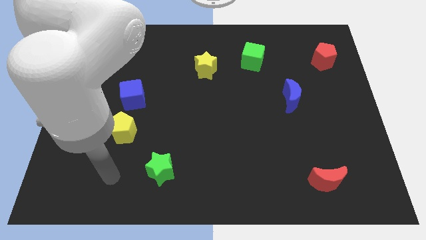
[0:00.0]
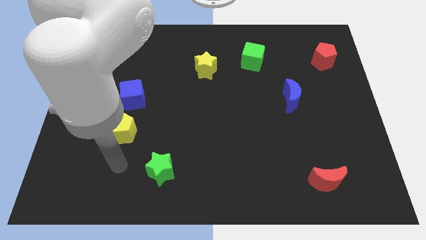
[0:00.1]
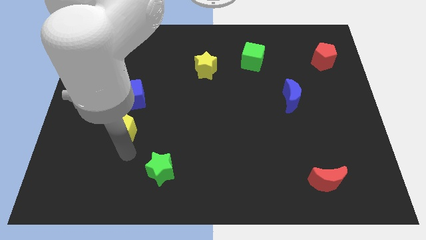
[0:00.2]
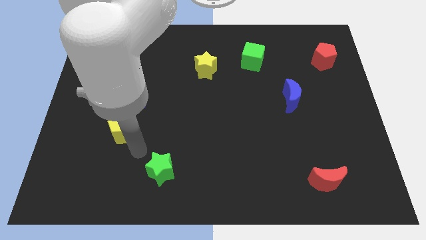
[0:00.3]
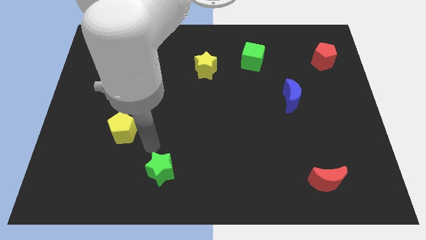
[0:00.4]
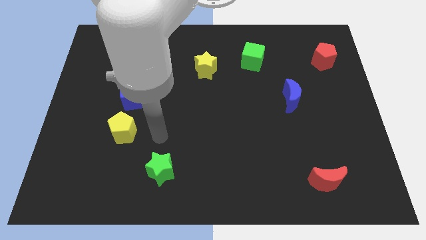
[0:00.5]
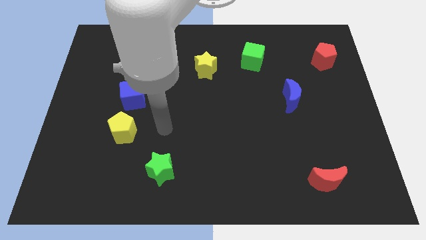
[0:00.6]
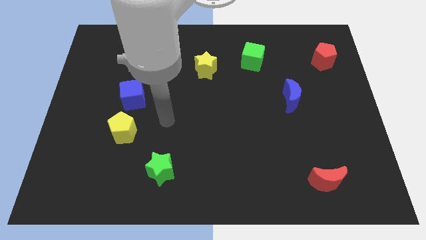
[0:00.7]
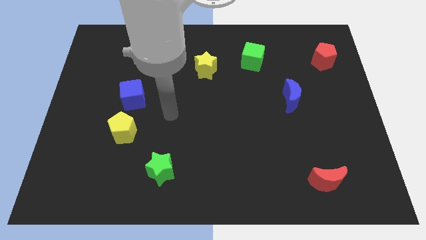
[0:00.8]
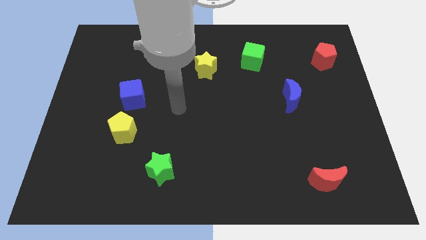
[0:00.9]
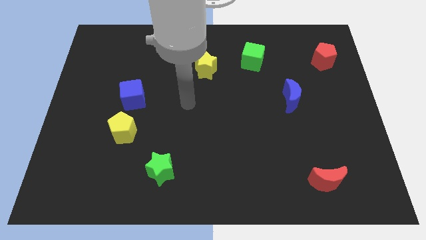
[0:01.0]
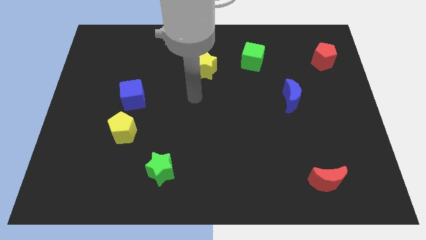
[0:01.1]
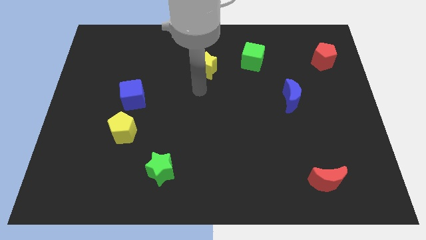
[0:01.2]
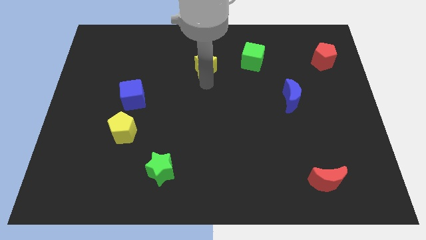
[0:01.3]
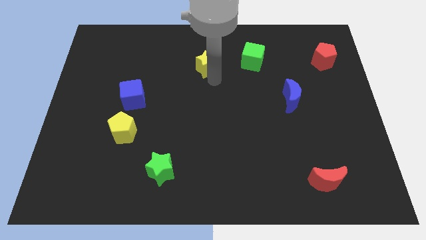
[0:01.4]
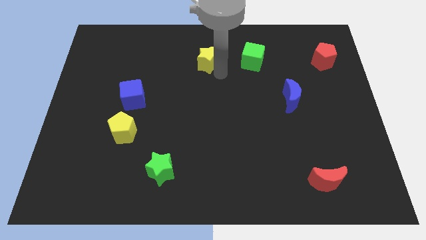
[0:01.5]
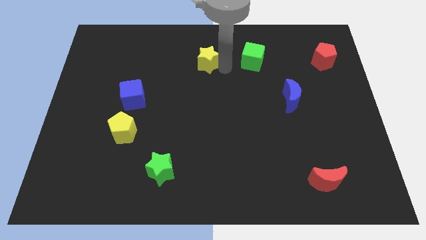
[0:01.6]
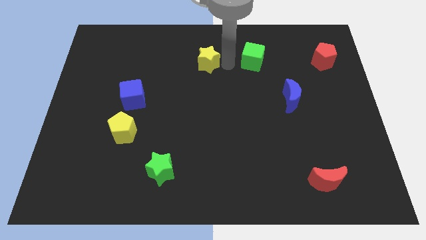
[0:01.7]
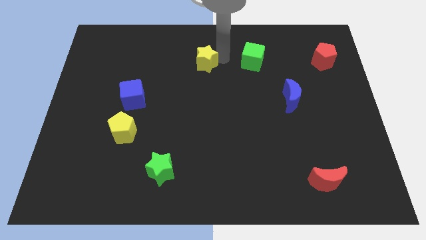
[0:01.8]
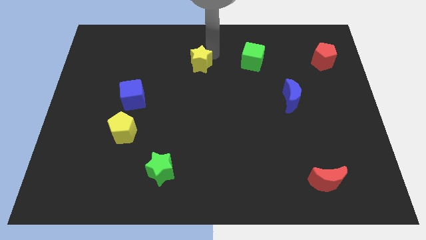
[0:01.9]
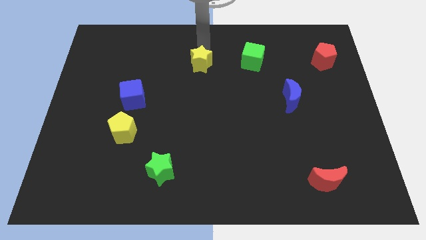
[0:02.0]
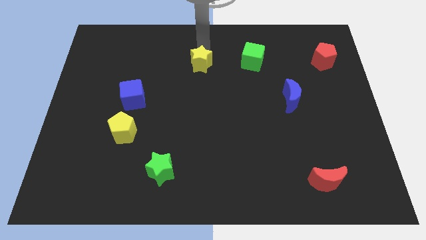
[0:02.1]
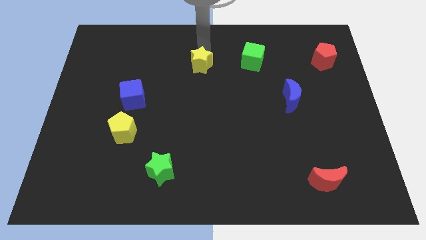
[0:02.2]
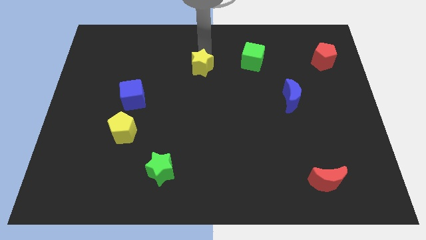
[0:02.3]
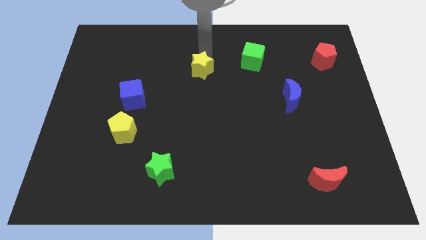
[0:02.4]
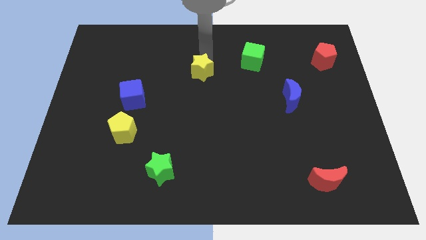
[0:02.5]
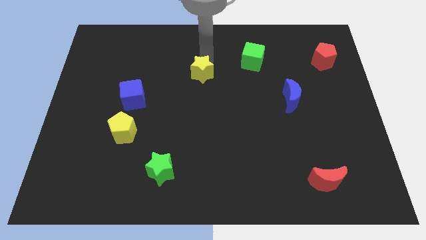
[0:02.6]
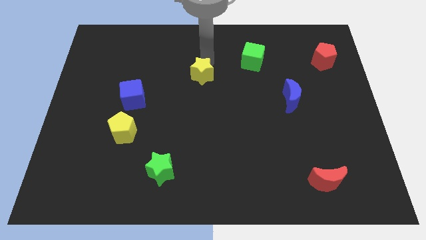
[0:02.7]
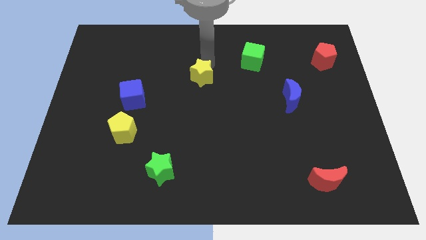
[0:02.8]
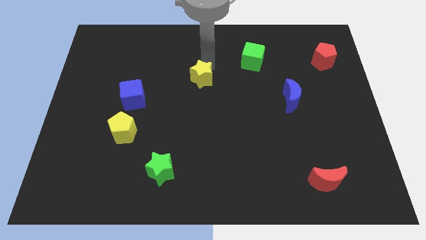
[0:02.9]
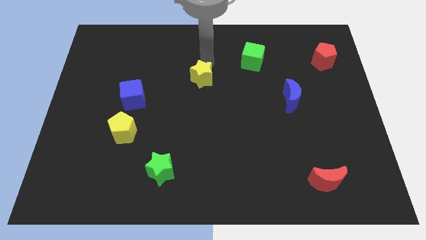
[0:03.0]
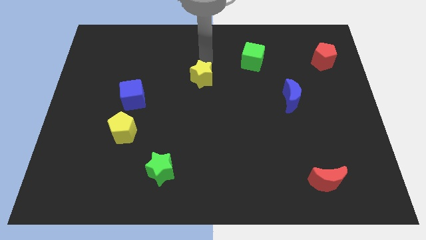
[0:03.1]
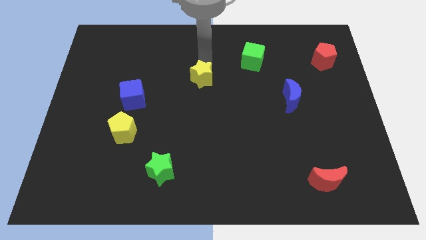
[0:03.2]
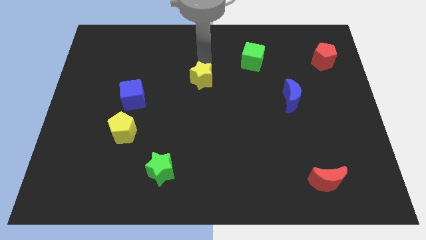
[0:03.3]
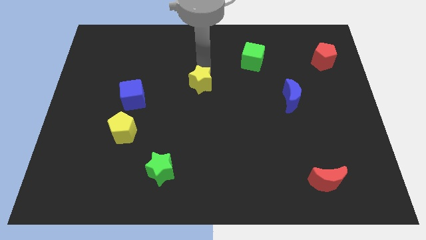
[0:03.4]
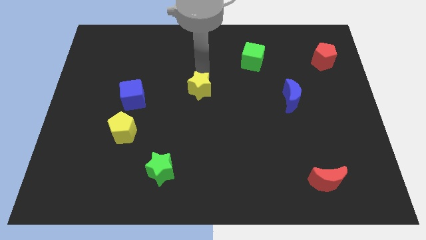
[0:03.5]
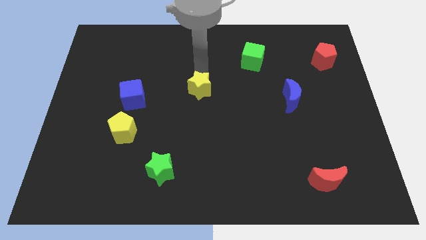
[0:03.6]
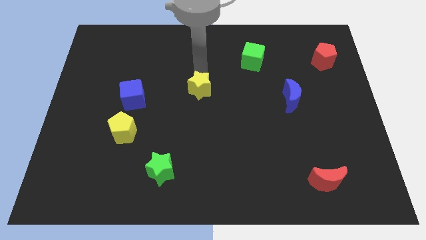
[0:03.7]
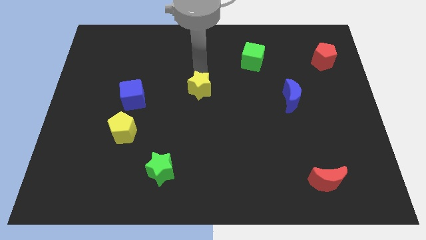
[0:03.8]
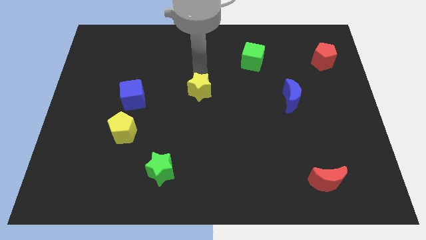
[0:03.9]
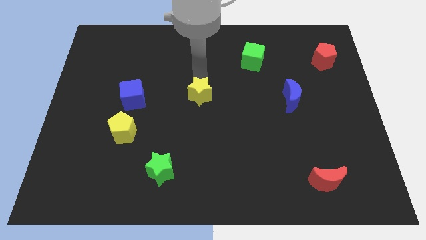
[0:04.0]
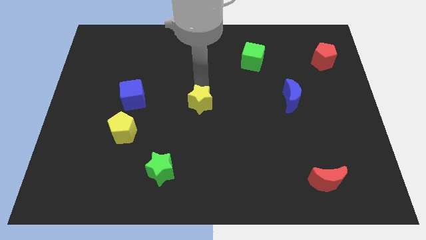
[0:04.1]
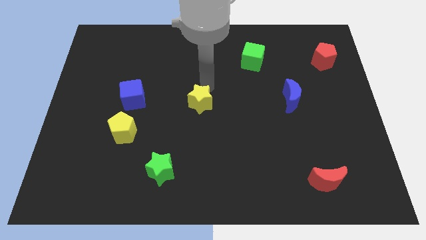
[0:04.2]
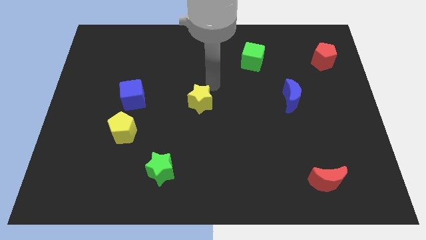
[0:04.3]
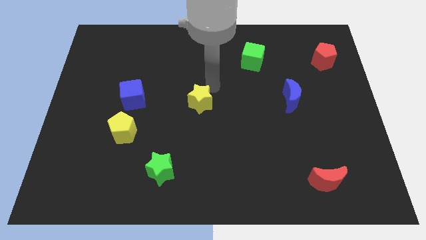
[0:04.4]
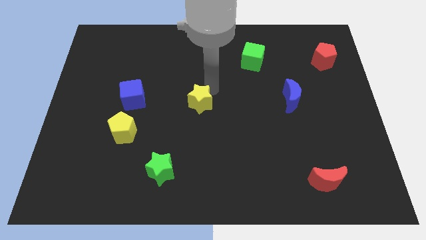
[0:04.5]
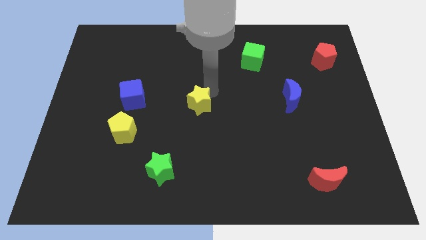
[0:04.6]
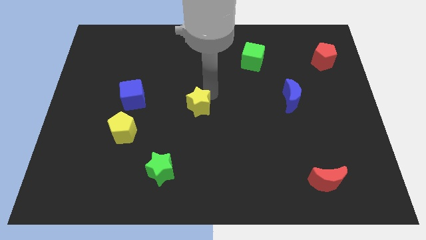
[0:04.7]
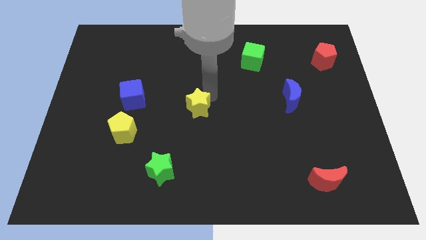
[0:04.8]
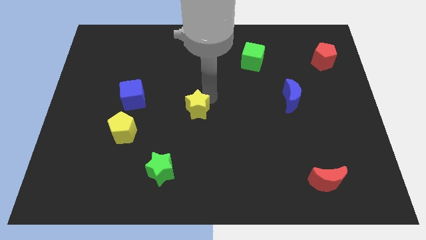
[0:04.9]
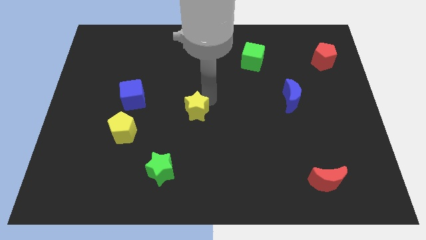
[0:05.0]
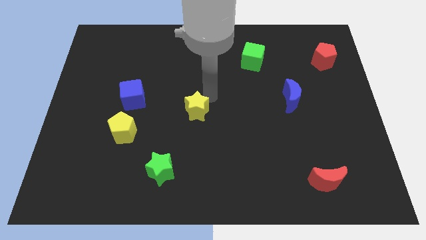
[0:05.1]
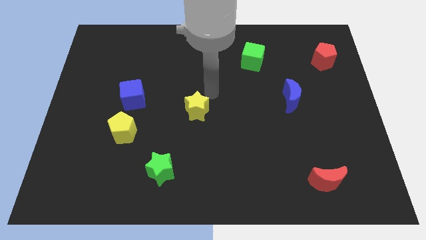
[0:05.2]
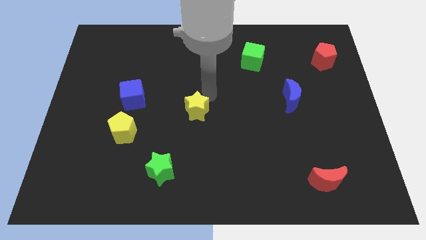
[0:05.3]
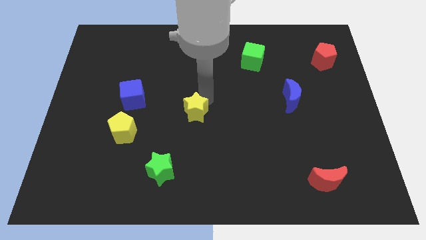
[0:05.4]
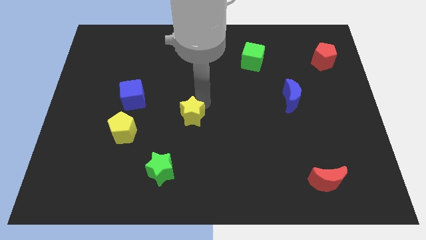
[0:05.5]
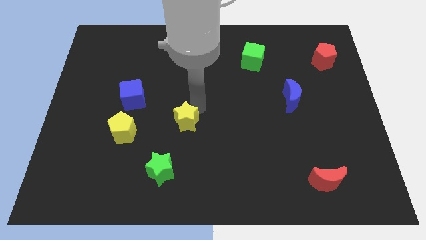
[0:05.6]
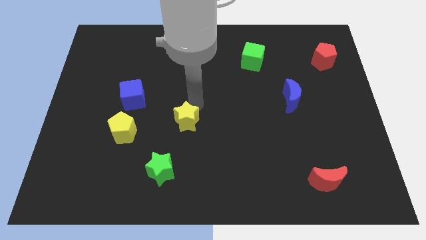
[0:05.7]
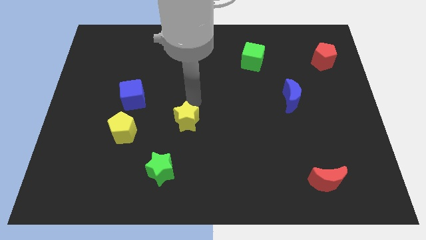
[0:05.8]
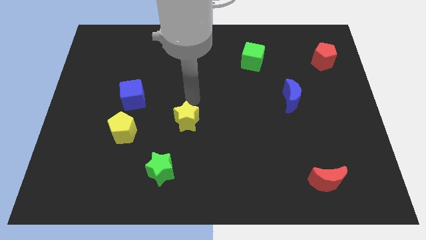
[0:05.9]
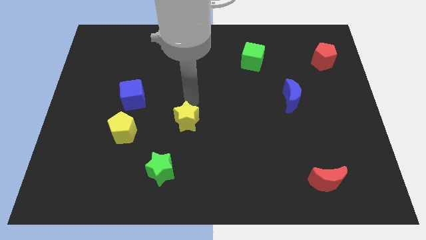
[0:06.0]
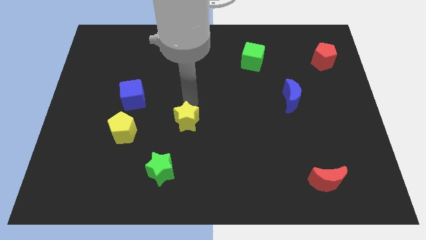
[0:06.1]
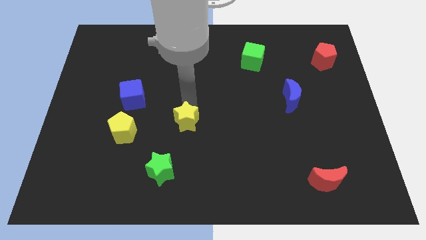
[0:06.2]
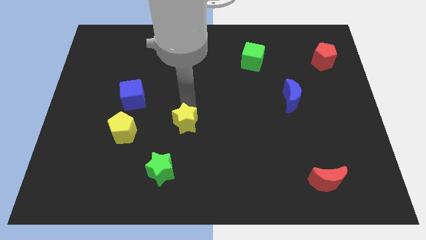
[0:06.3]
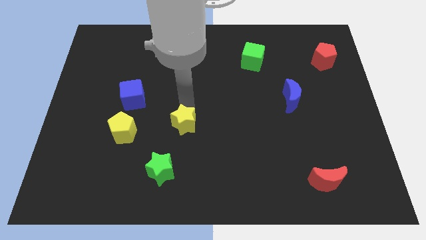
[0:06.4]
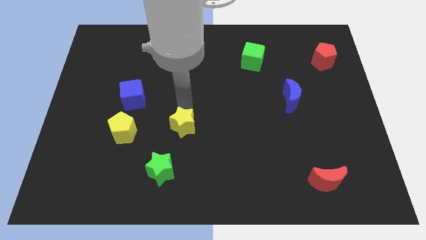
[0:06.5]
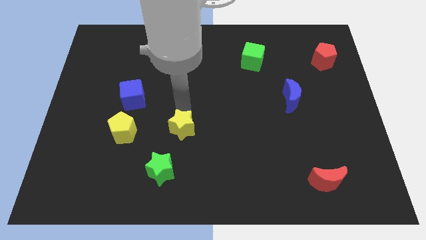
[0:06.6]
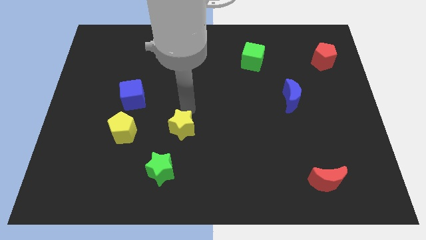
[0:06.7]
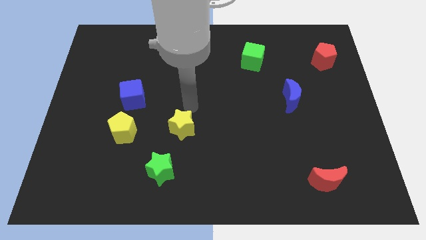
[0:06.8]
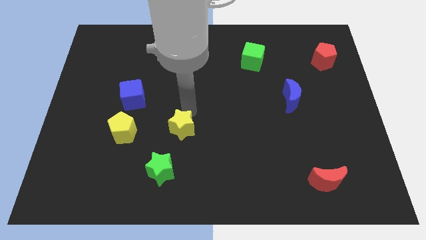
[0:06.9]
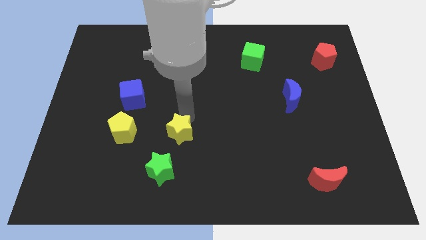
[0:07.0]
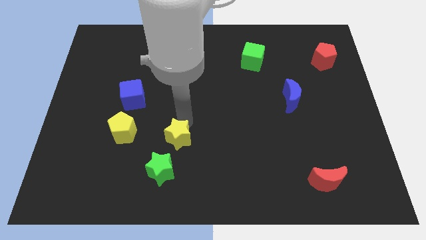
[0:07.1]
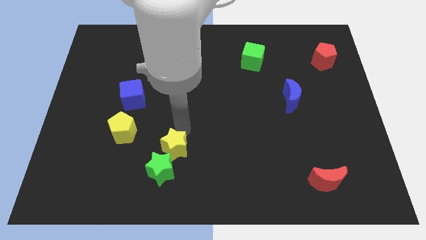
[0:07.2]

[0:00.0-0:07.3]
move the yellow star to the green star
